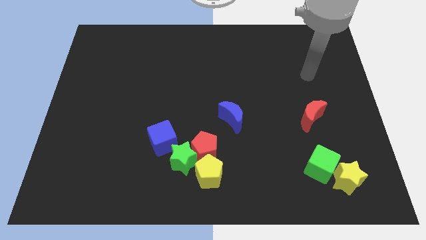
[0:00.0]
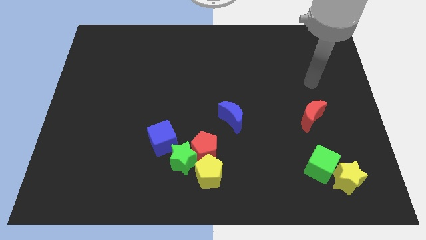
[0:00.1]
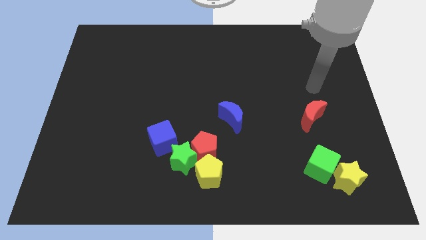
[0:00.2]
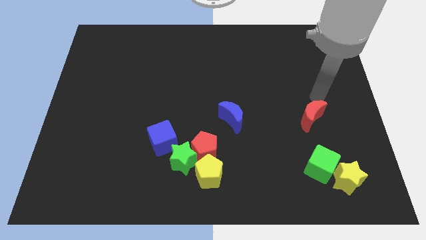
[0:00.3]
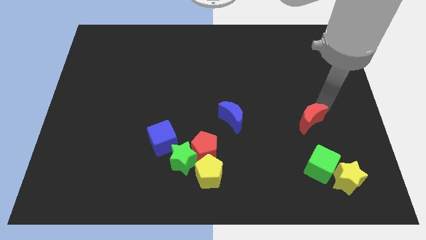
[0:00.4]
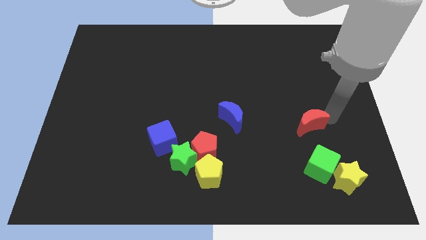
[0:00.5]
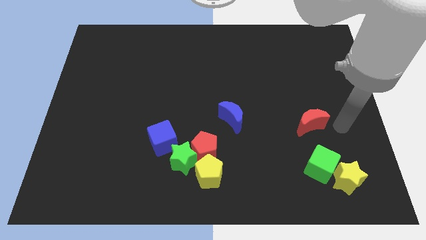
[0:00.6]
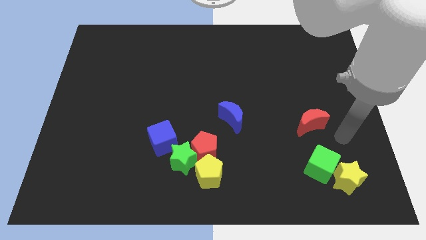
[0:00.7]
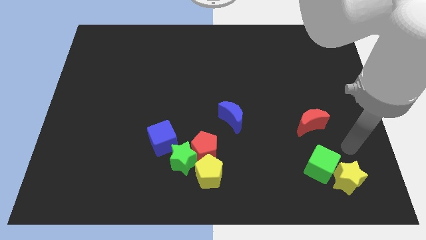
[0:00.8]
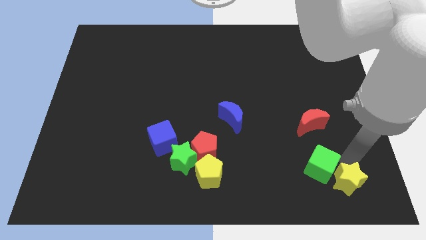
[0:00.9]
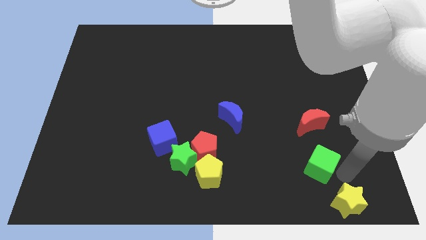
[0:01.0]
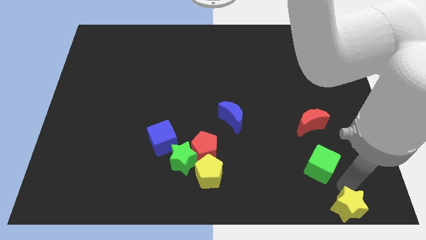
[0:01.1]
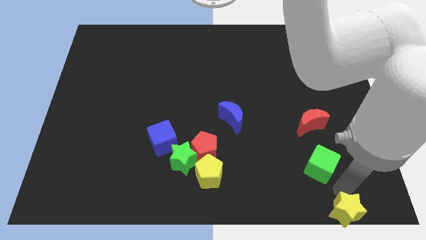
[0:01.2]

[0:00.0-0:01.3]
move the green cube away from the yellow star

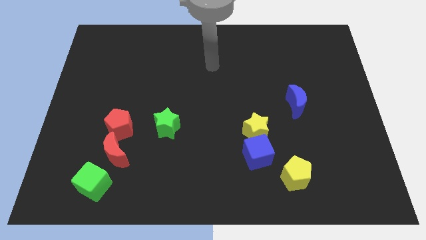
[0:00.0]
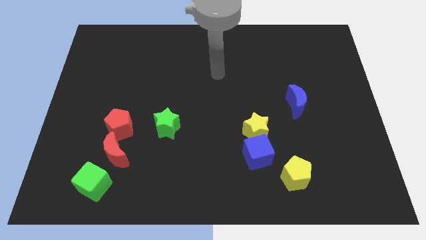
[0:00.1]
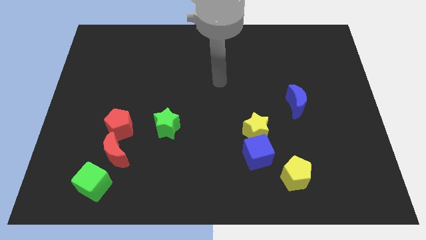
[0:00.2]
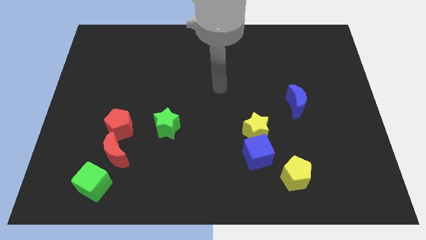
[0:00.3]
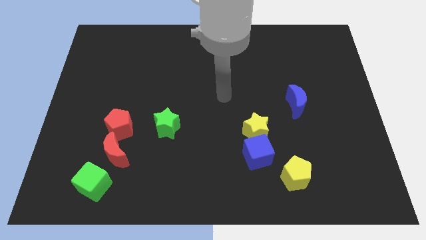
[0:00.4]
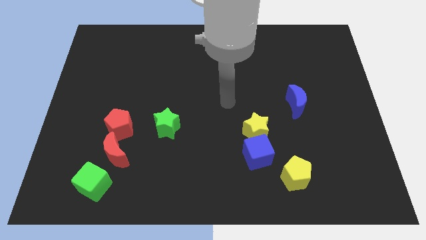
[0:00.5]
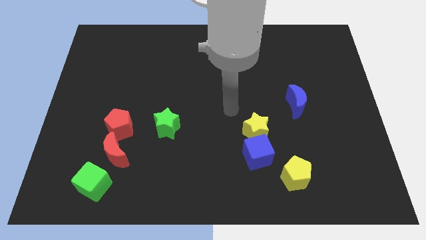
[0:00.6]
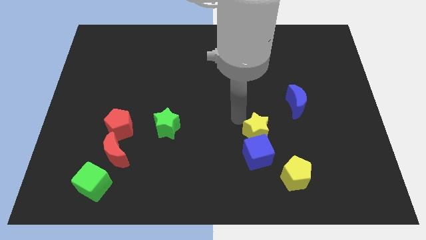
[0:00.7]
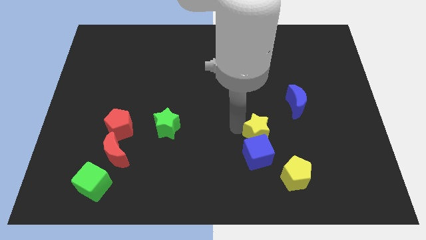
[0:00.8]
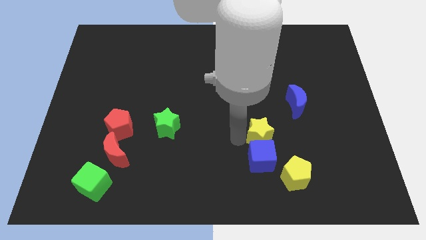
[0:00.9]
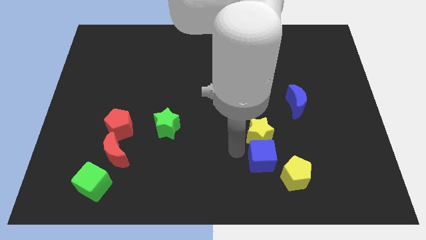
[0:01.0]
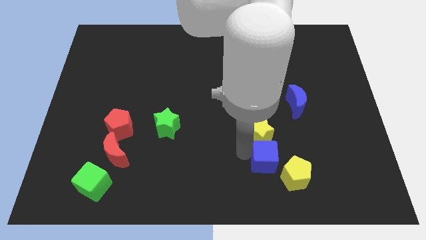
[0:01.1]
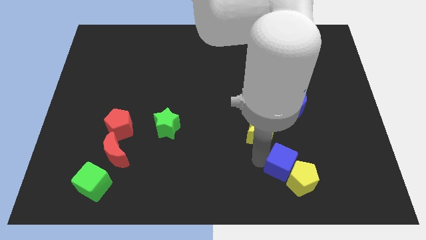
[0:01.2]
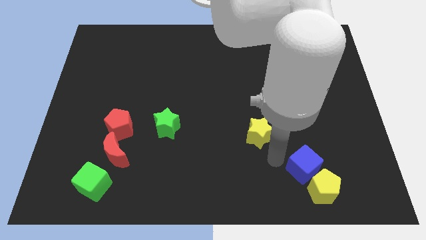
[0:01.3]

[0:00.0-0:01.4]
move the yellow star away from the blue cube

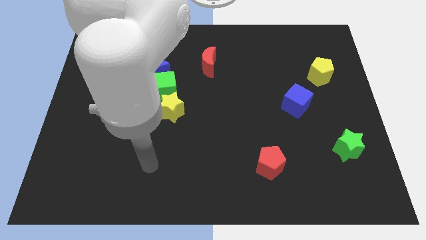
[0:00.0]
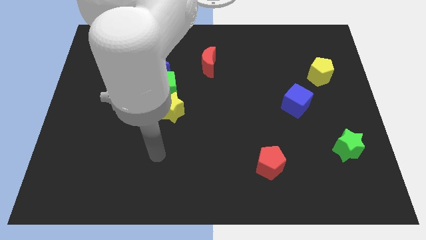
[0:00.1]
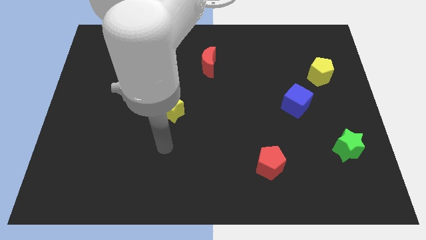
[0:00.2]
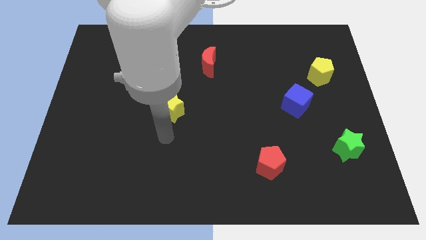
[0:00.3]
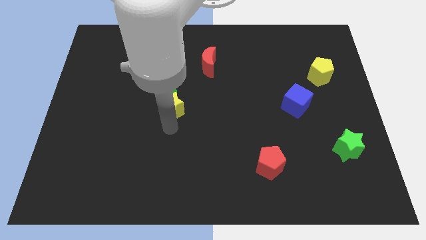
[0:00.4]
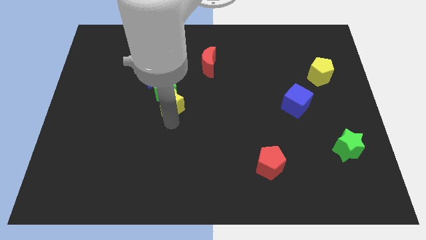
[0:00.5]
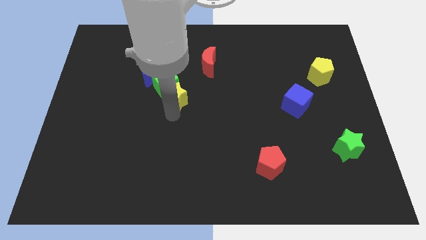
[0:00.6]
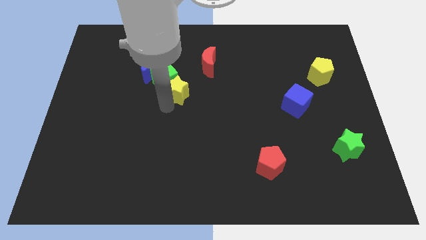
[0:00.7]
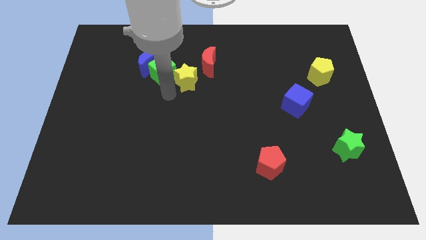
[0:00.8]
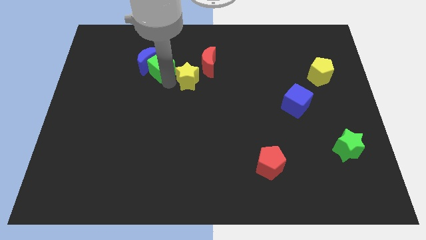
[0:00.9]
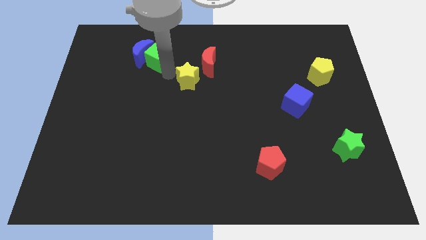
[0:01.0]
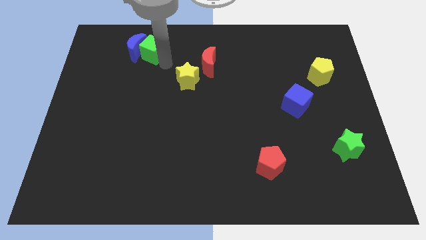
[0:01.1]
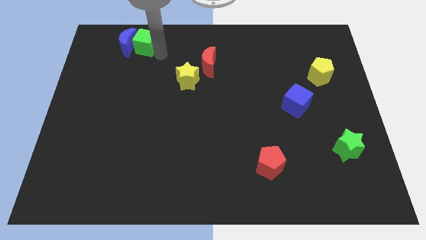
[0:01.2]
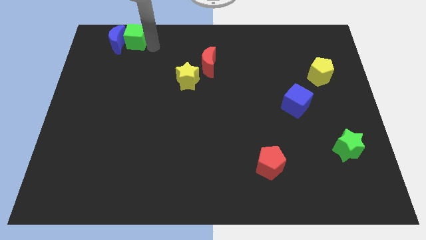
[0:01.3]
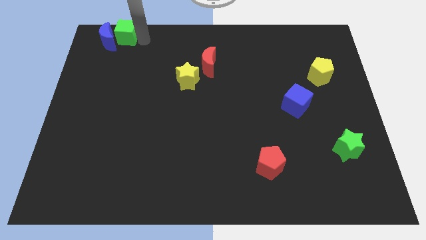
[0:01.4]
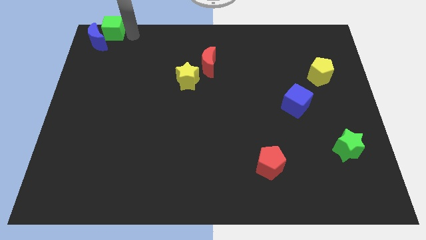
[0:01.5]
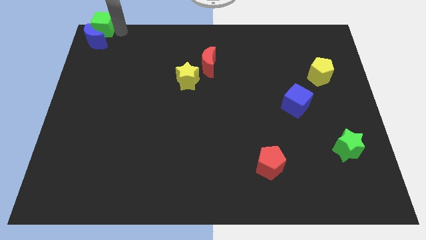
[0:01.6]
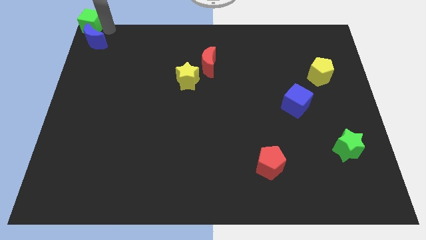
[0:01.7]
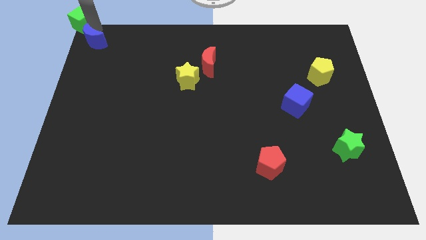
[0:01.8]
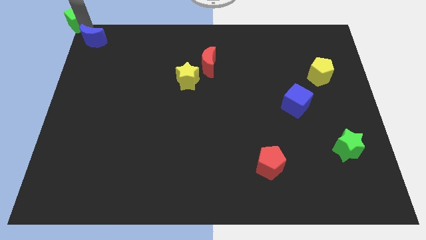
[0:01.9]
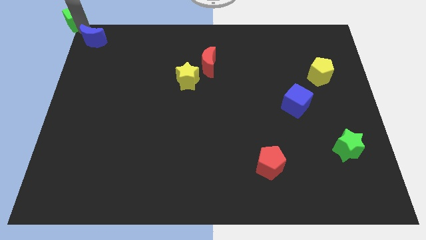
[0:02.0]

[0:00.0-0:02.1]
move the blue moon away from the green cube

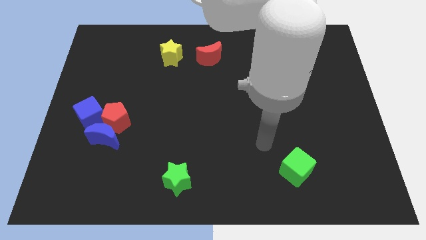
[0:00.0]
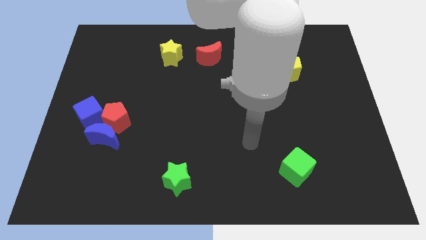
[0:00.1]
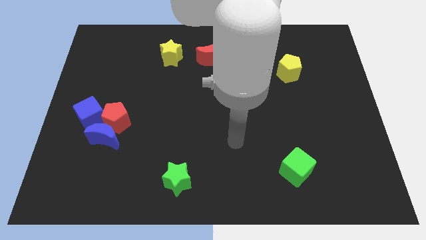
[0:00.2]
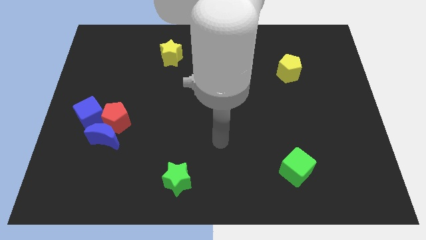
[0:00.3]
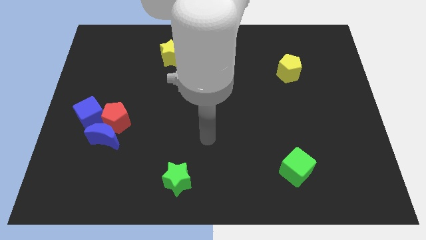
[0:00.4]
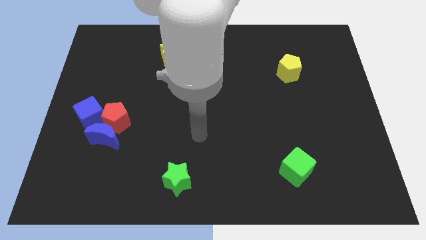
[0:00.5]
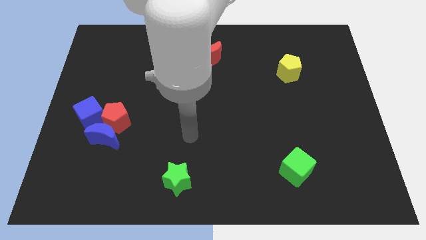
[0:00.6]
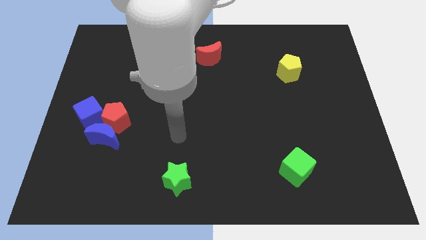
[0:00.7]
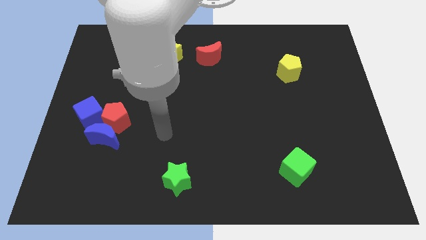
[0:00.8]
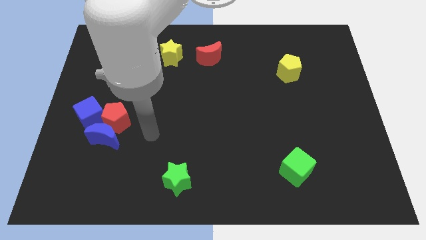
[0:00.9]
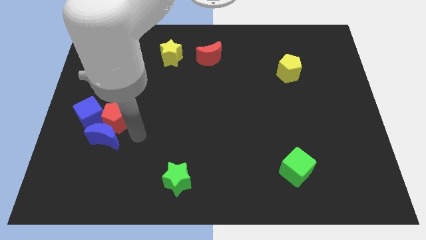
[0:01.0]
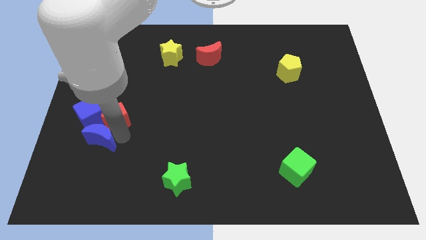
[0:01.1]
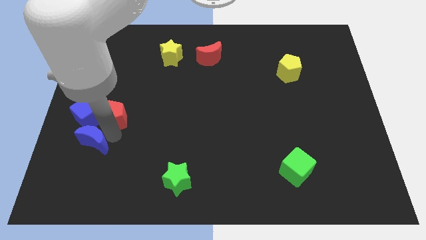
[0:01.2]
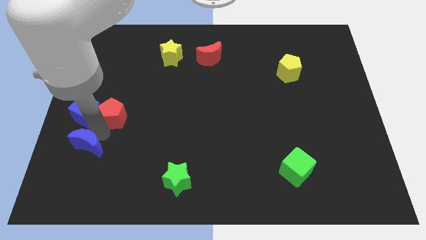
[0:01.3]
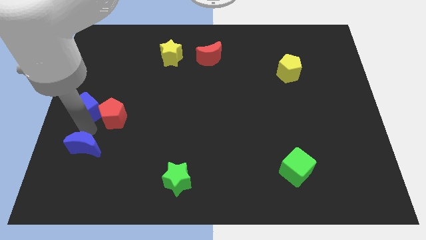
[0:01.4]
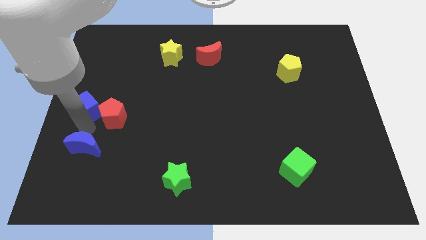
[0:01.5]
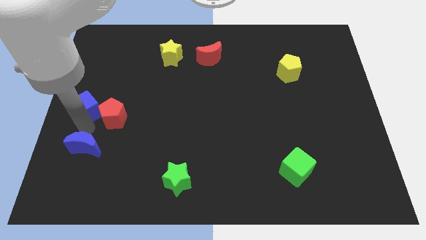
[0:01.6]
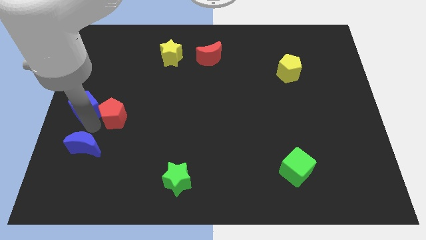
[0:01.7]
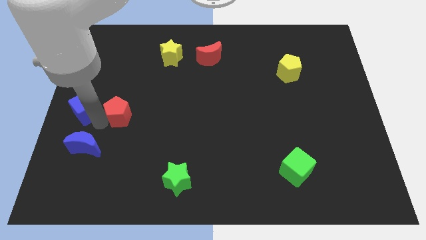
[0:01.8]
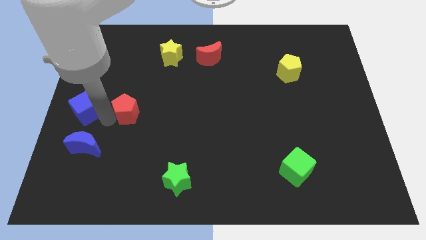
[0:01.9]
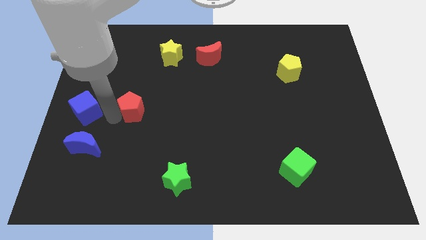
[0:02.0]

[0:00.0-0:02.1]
separate the red pentagon from the blue moon and blue cube

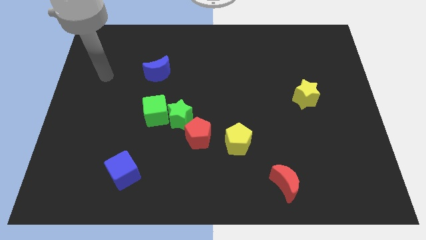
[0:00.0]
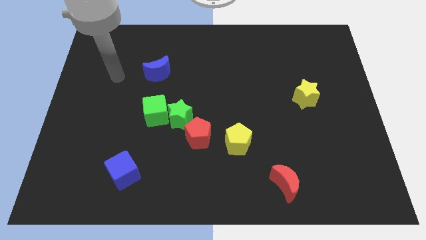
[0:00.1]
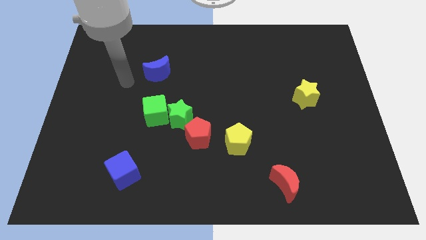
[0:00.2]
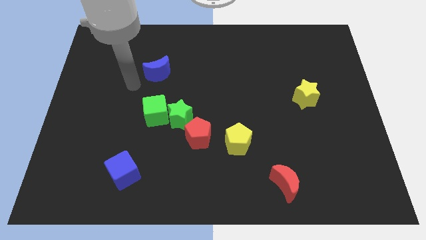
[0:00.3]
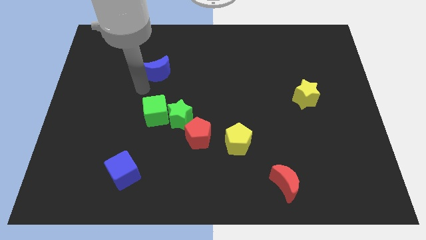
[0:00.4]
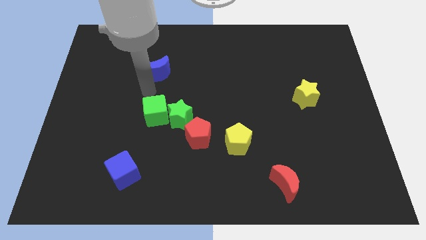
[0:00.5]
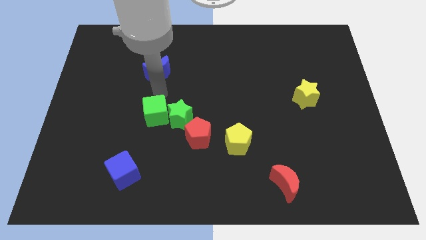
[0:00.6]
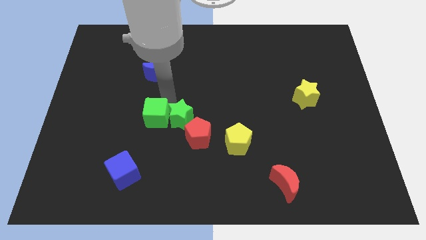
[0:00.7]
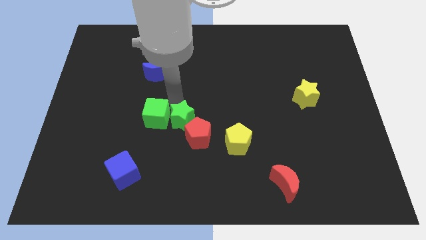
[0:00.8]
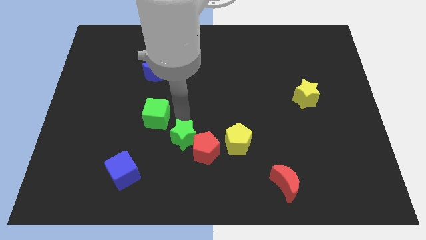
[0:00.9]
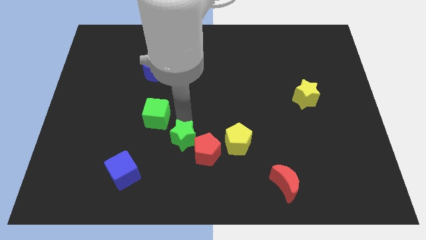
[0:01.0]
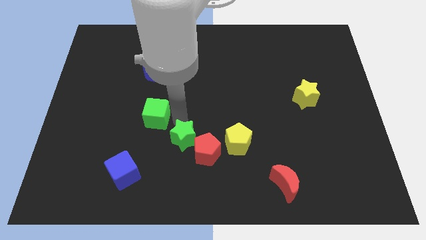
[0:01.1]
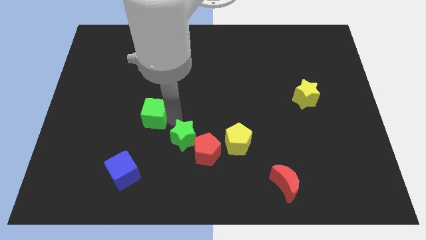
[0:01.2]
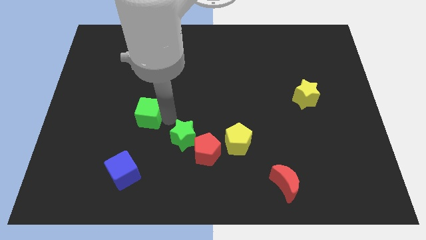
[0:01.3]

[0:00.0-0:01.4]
separate the green cube from the green star

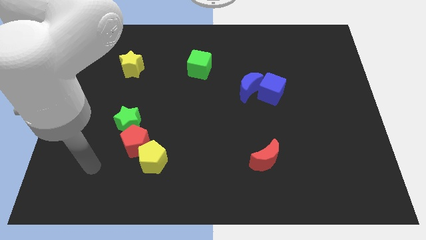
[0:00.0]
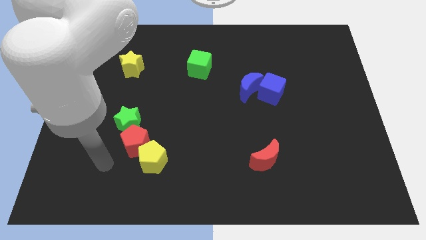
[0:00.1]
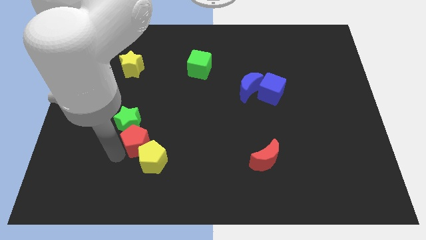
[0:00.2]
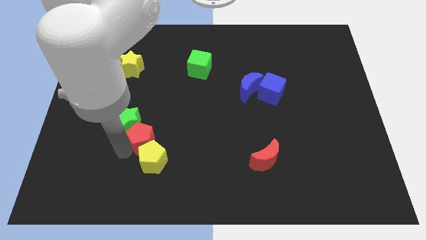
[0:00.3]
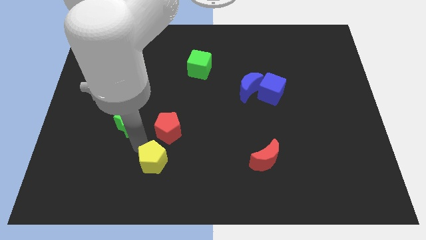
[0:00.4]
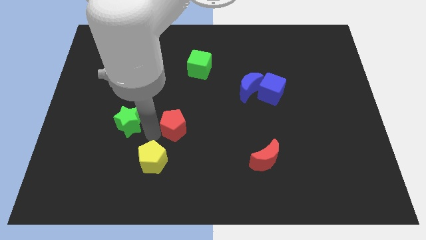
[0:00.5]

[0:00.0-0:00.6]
separate the green star from the red pentagon

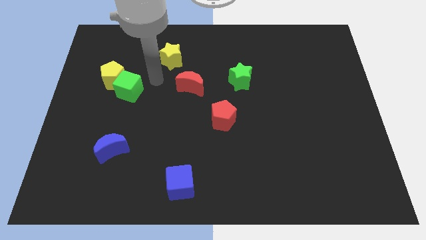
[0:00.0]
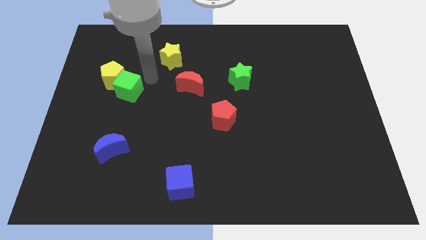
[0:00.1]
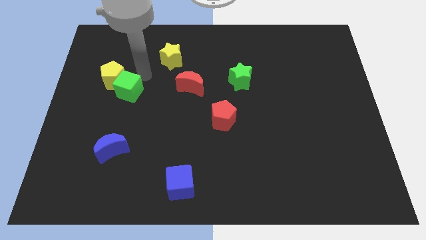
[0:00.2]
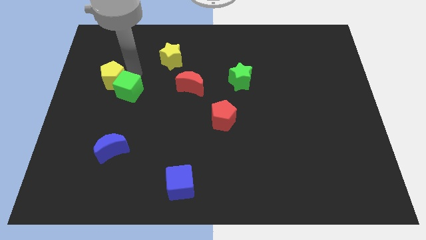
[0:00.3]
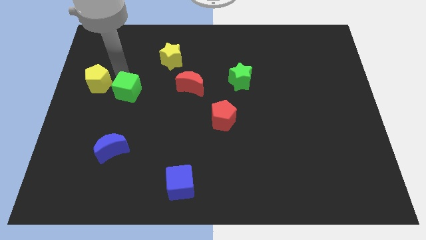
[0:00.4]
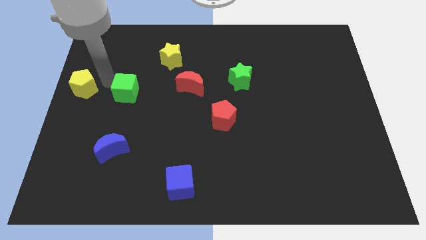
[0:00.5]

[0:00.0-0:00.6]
pull the green cube apart from the yellow pentagon
